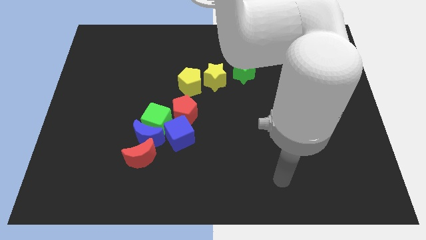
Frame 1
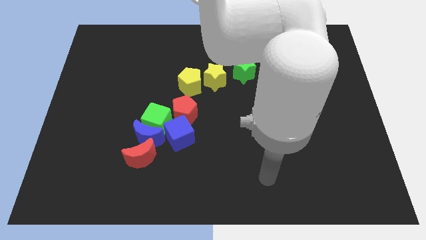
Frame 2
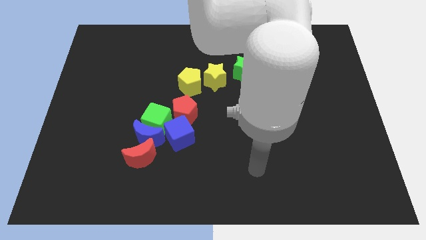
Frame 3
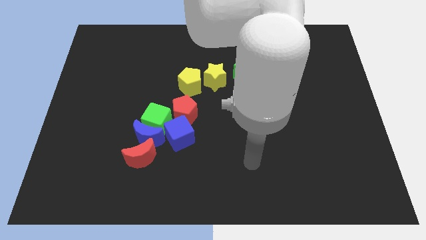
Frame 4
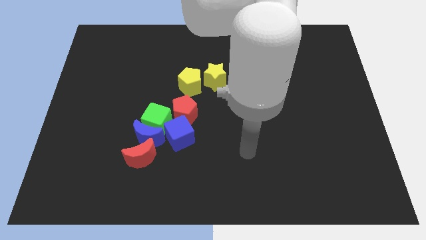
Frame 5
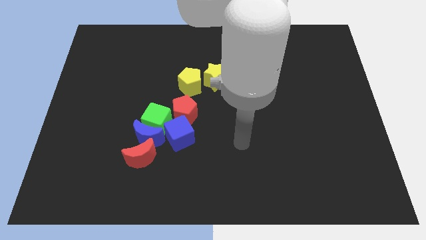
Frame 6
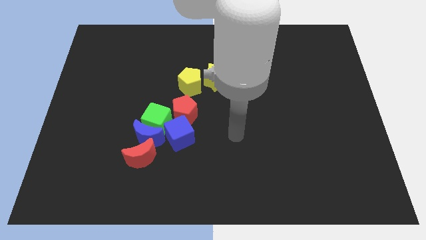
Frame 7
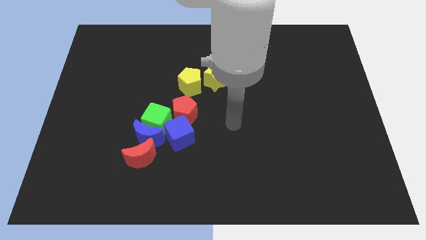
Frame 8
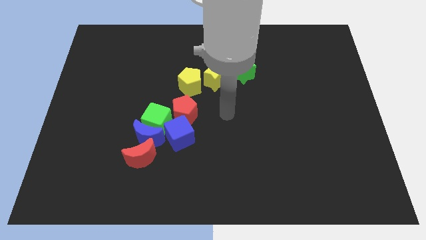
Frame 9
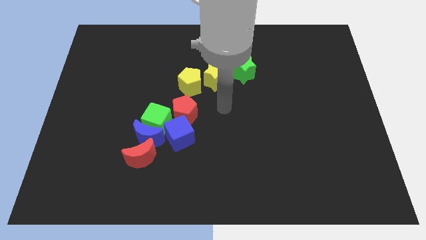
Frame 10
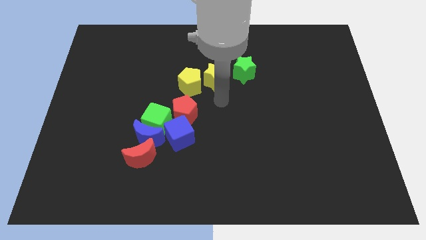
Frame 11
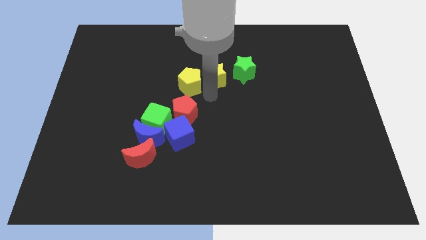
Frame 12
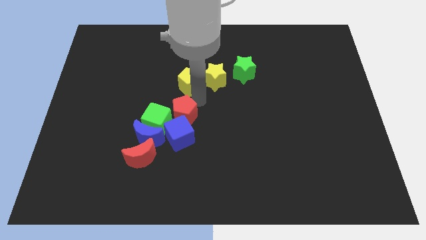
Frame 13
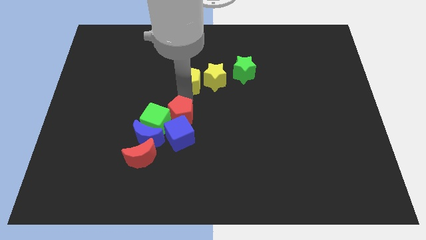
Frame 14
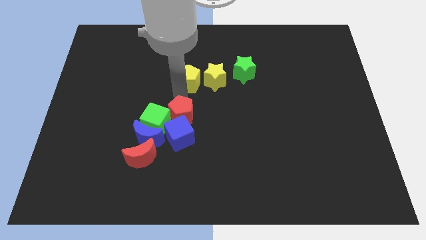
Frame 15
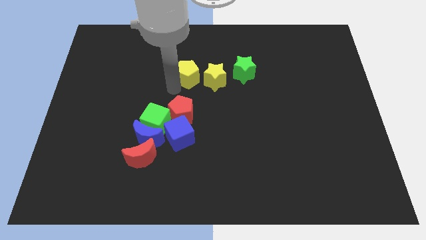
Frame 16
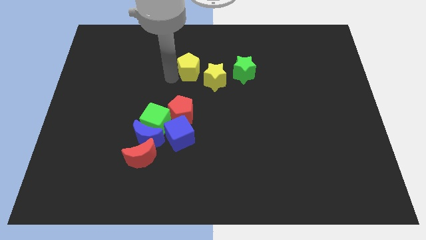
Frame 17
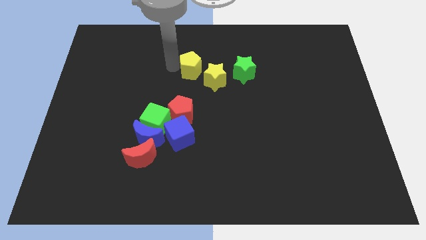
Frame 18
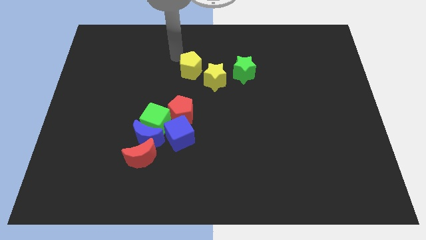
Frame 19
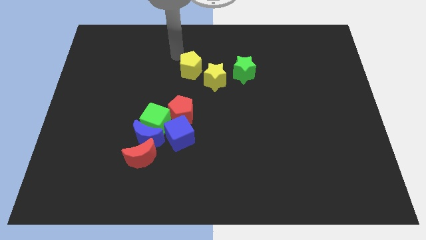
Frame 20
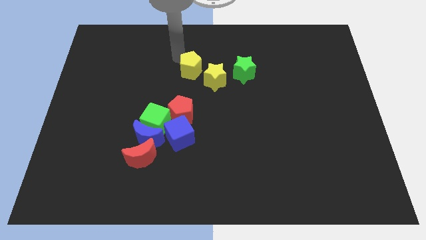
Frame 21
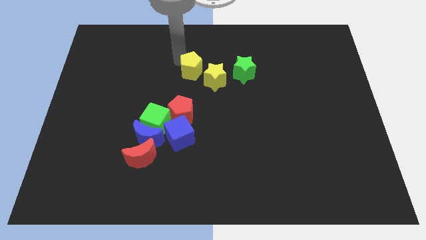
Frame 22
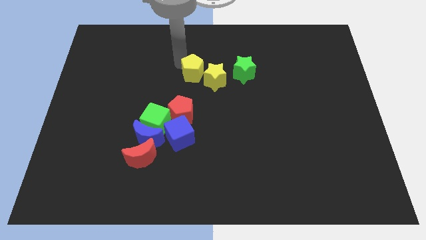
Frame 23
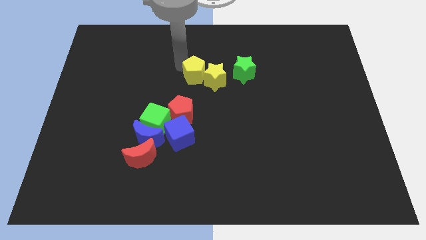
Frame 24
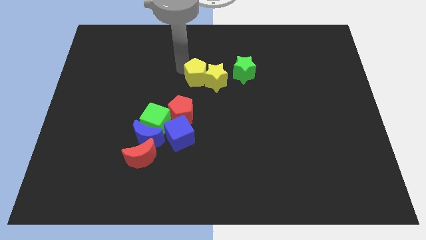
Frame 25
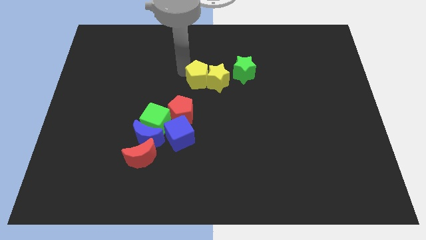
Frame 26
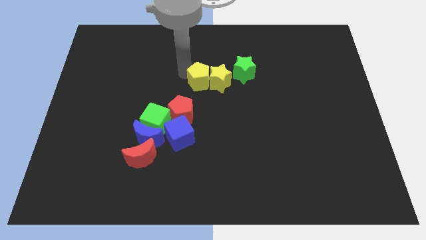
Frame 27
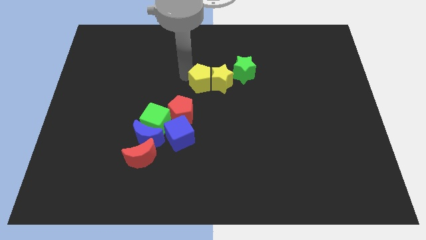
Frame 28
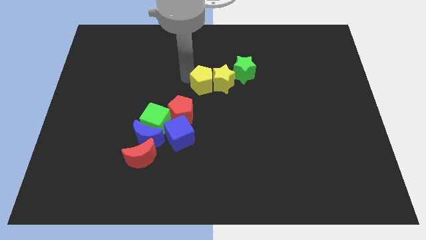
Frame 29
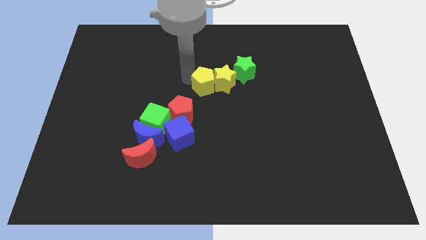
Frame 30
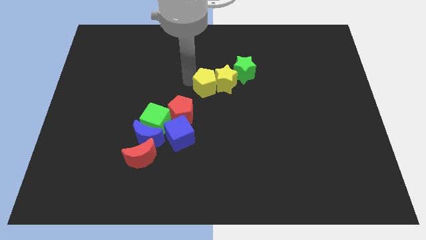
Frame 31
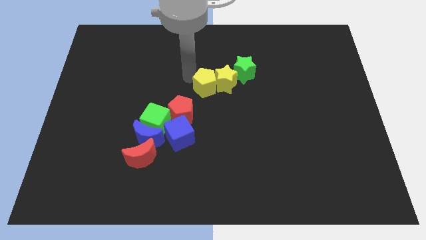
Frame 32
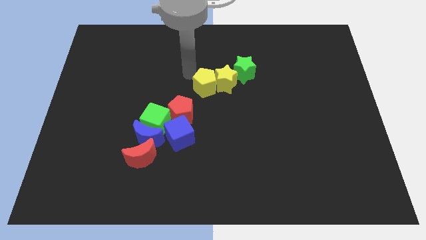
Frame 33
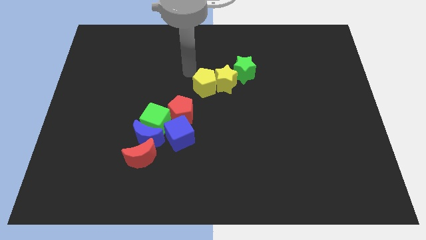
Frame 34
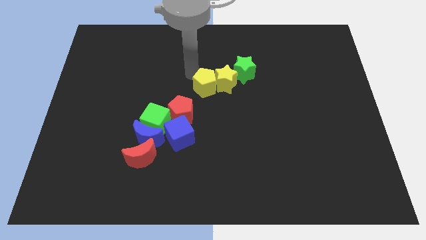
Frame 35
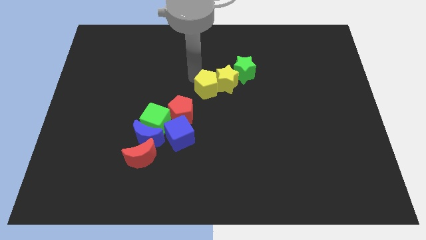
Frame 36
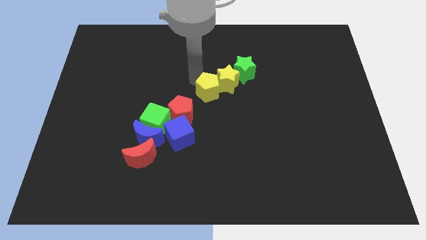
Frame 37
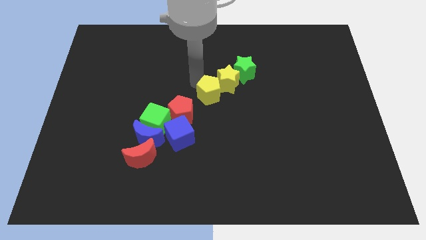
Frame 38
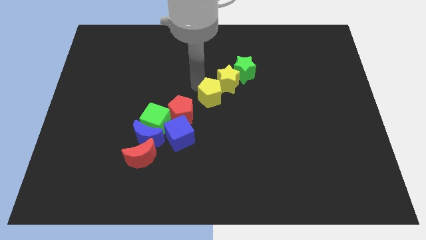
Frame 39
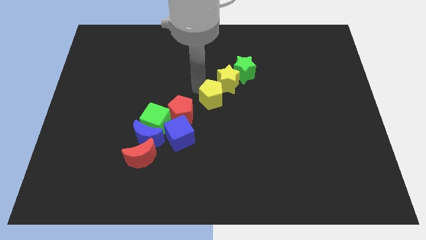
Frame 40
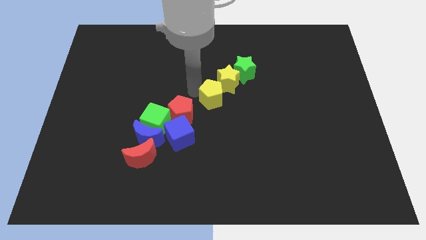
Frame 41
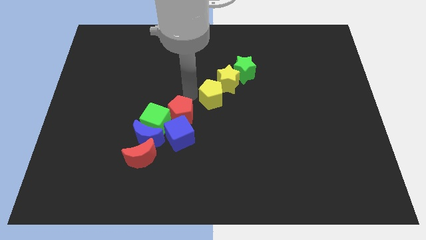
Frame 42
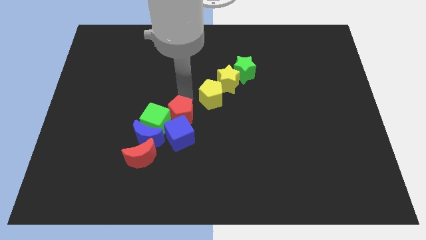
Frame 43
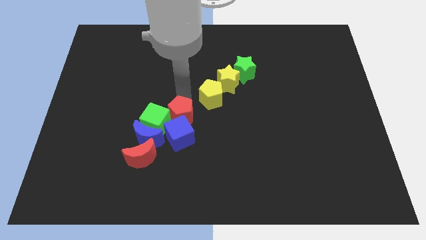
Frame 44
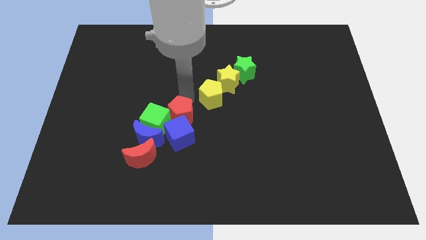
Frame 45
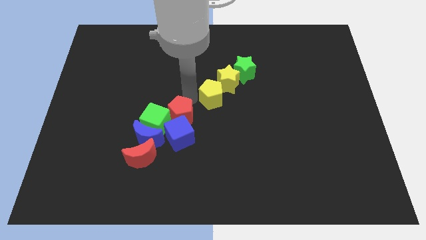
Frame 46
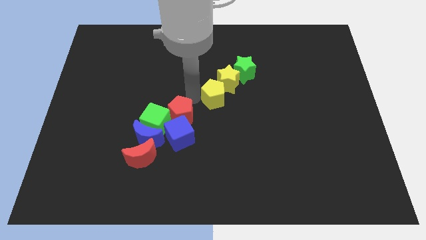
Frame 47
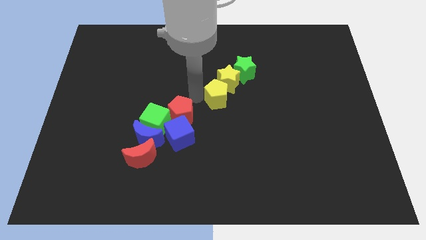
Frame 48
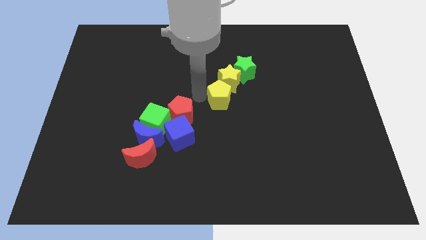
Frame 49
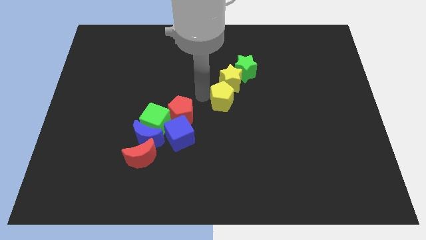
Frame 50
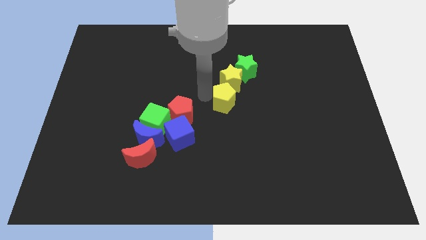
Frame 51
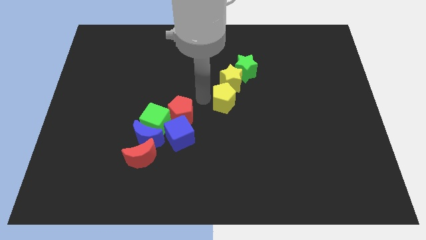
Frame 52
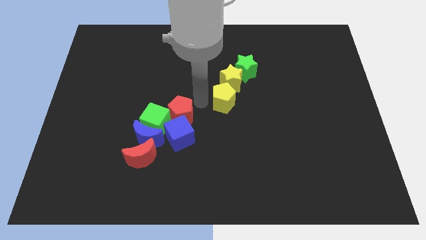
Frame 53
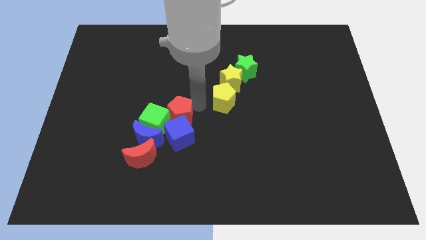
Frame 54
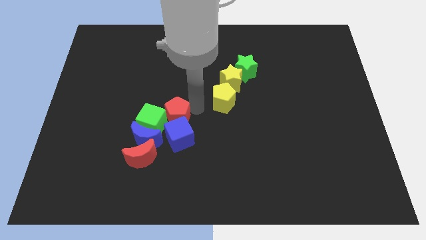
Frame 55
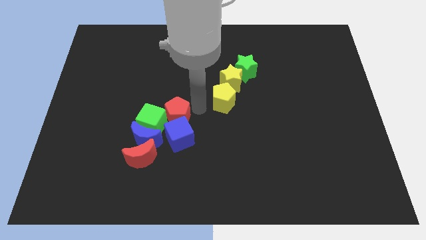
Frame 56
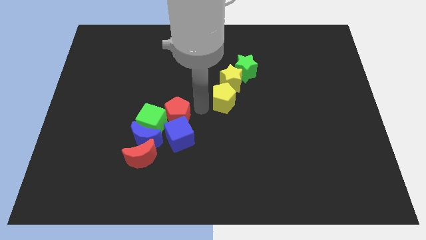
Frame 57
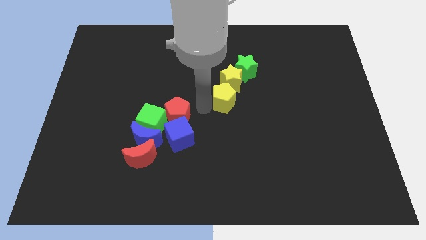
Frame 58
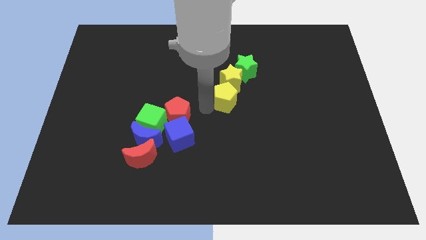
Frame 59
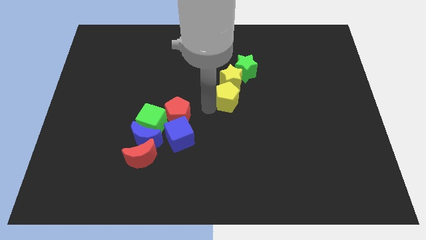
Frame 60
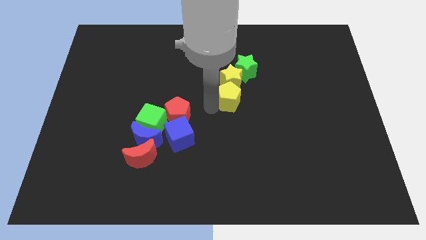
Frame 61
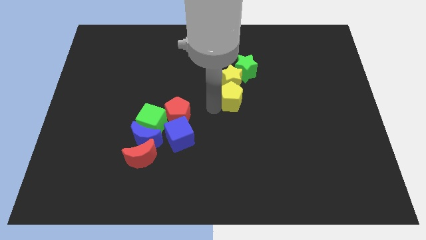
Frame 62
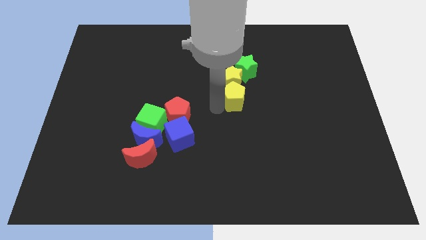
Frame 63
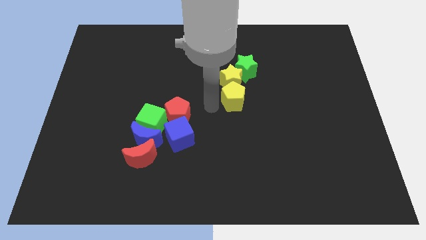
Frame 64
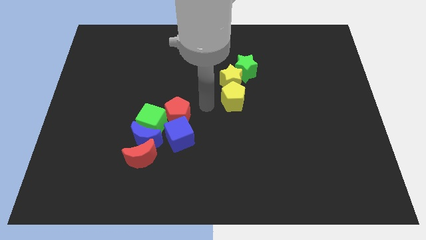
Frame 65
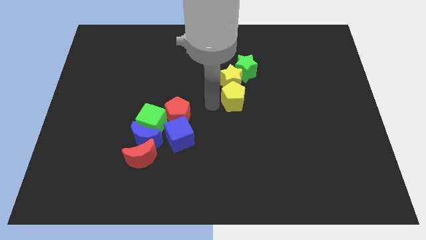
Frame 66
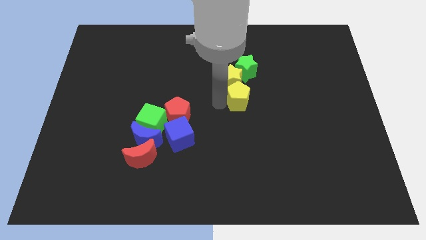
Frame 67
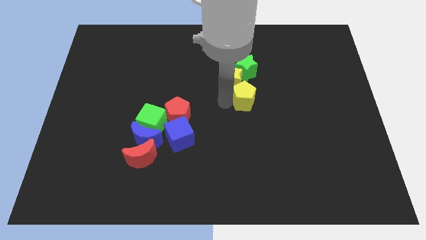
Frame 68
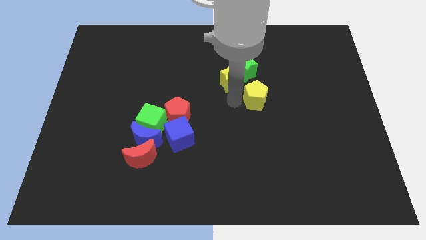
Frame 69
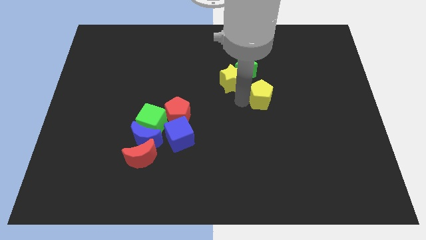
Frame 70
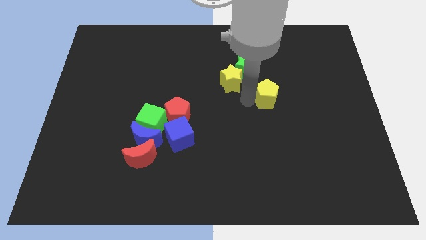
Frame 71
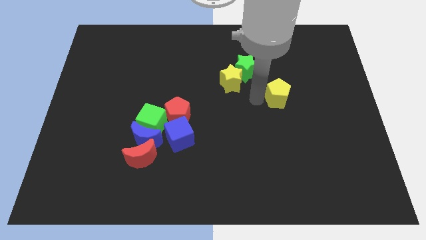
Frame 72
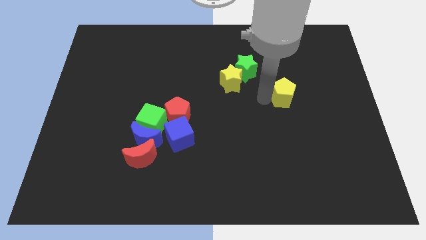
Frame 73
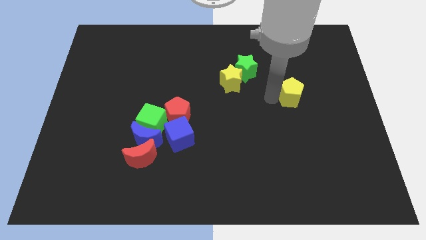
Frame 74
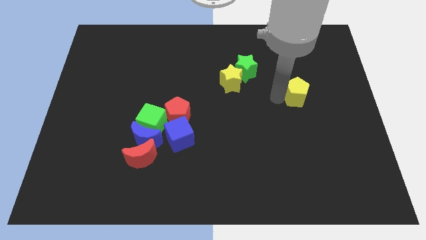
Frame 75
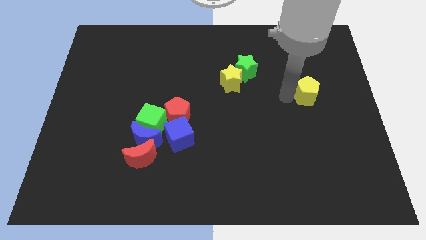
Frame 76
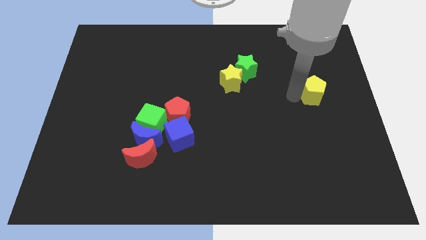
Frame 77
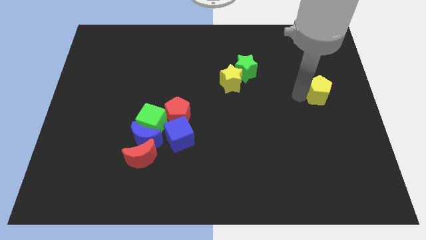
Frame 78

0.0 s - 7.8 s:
move the yellow pentagon to the right side of the board
